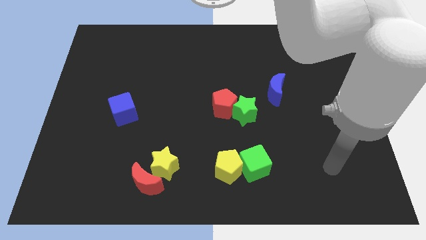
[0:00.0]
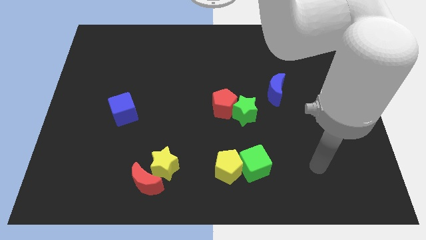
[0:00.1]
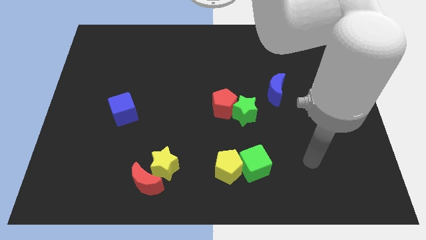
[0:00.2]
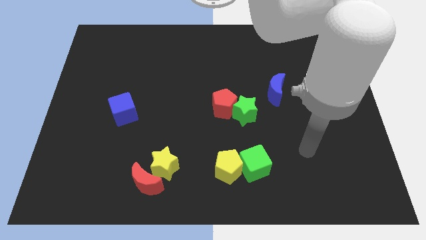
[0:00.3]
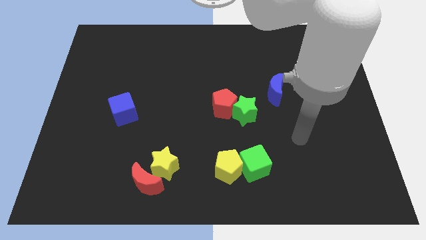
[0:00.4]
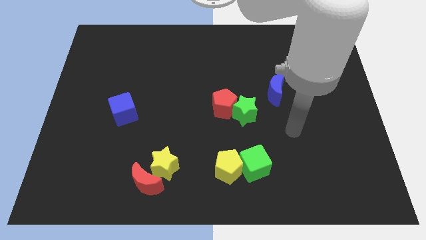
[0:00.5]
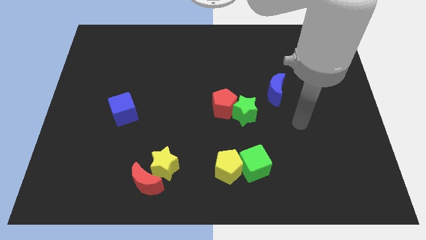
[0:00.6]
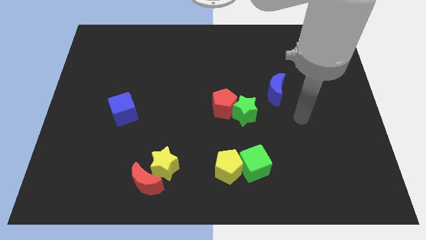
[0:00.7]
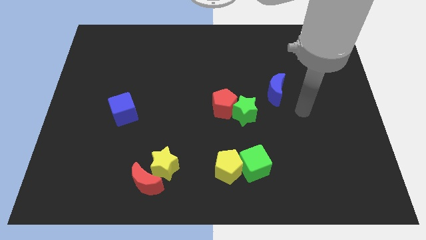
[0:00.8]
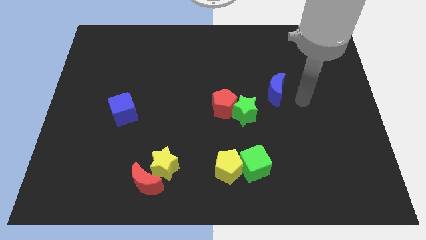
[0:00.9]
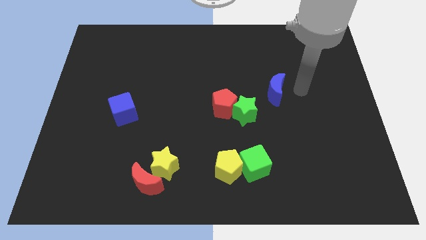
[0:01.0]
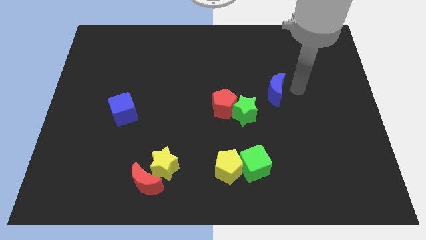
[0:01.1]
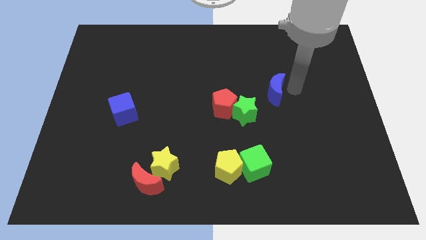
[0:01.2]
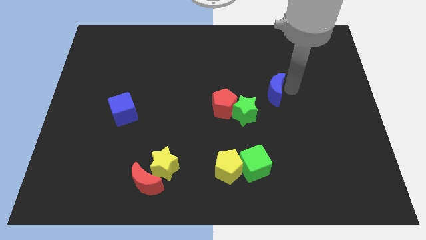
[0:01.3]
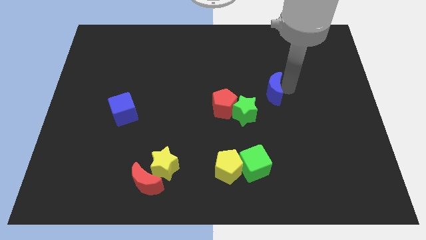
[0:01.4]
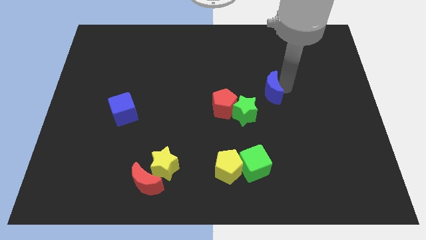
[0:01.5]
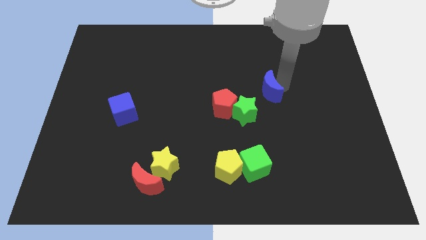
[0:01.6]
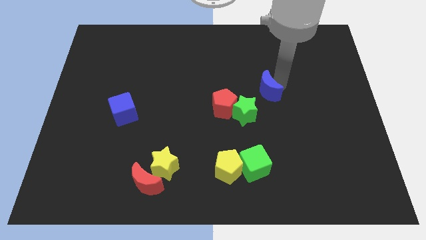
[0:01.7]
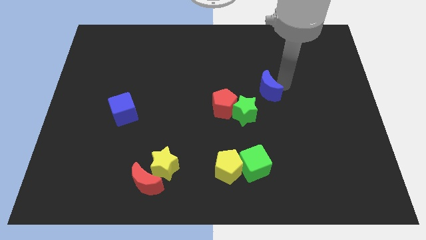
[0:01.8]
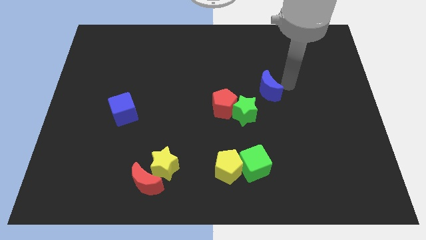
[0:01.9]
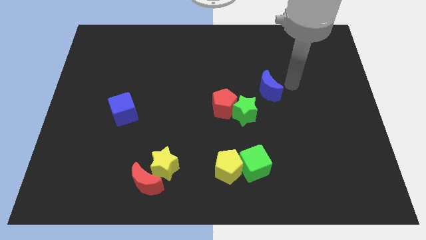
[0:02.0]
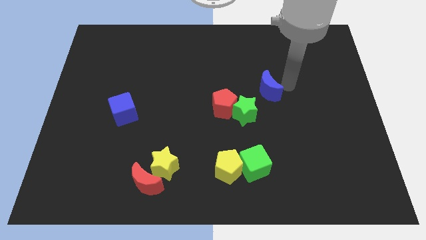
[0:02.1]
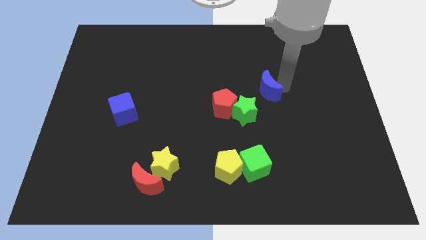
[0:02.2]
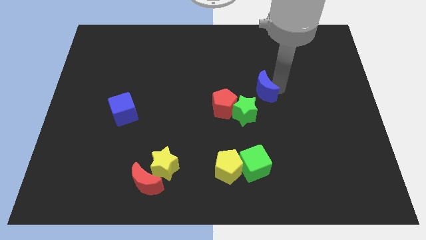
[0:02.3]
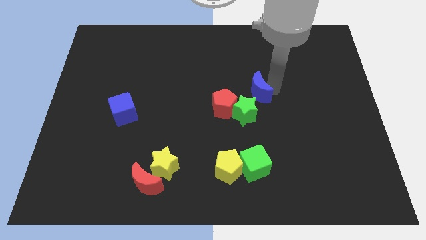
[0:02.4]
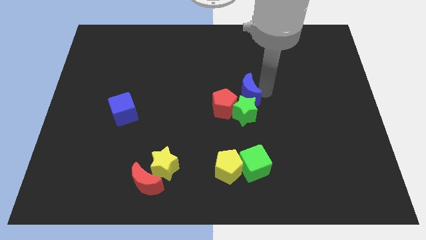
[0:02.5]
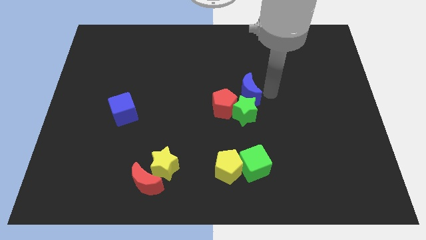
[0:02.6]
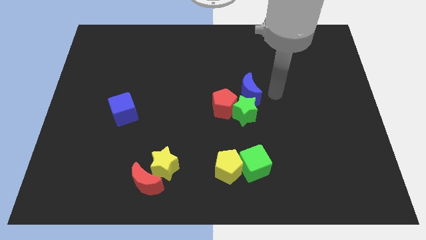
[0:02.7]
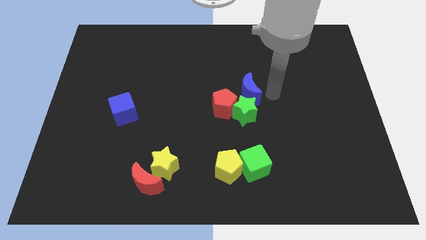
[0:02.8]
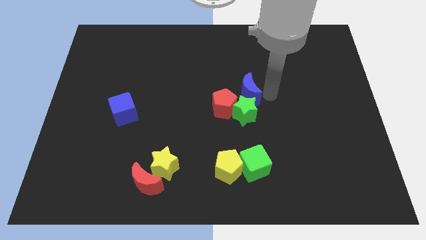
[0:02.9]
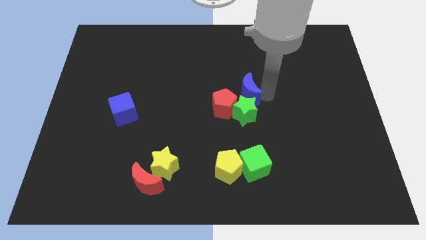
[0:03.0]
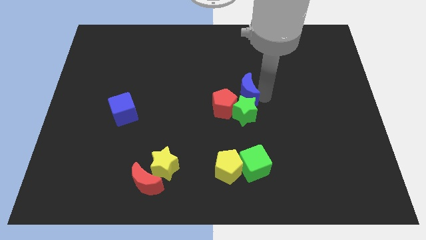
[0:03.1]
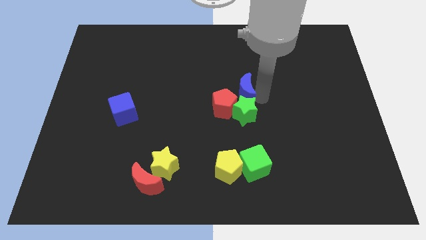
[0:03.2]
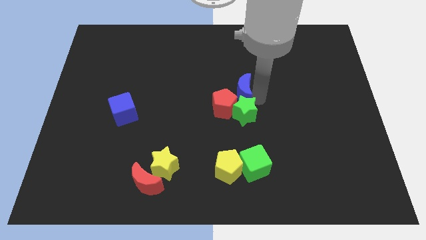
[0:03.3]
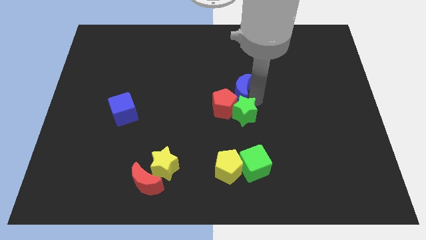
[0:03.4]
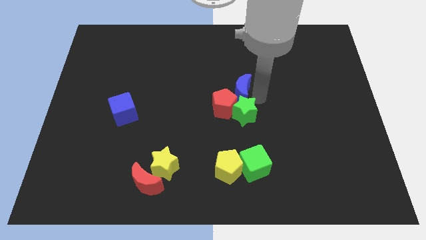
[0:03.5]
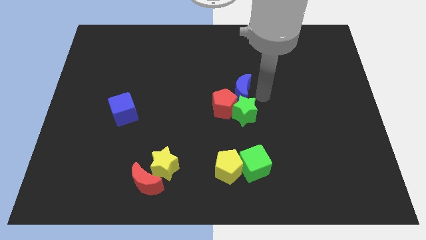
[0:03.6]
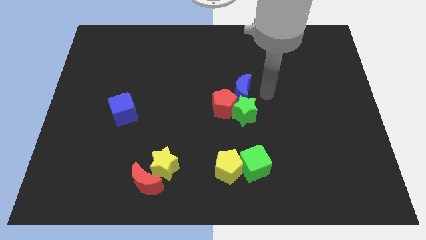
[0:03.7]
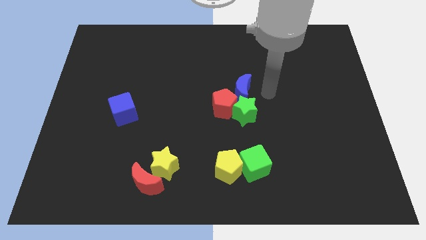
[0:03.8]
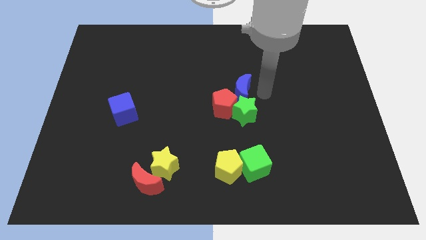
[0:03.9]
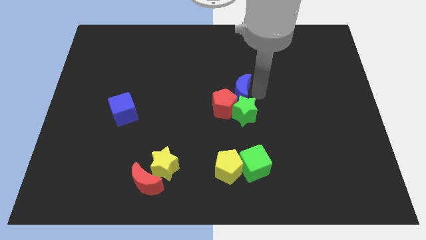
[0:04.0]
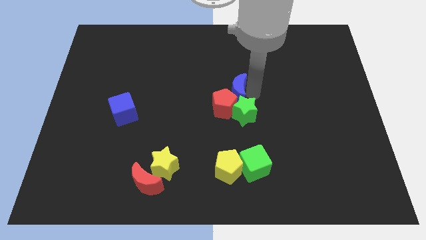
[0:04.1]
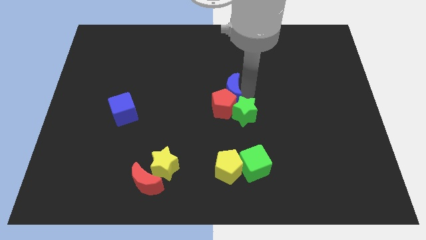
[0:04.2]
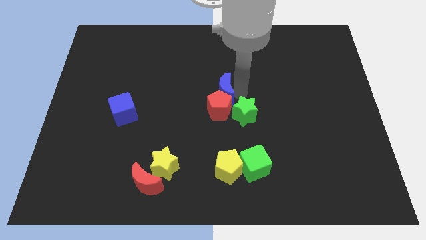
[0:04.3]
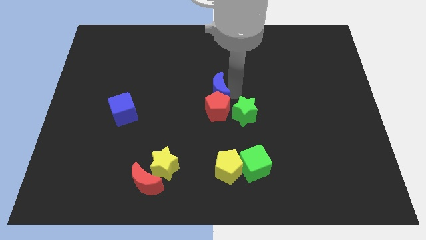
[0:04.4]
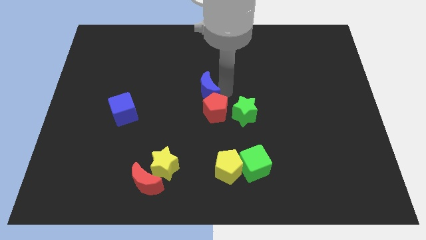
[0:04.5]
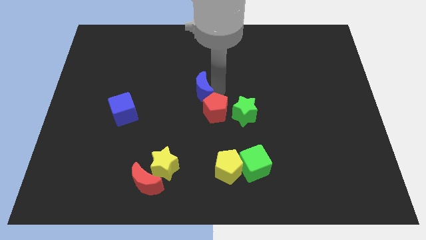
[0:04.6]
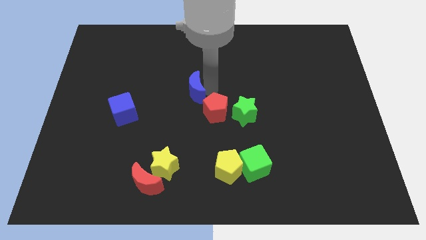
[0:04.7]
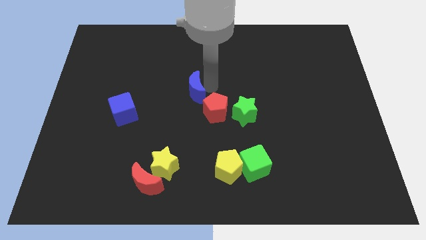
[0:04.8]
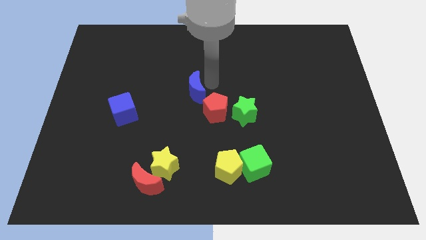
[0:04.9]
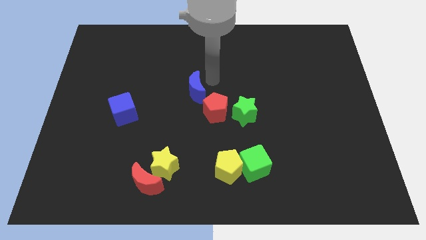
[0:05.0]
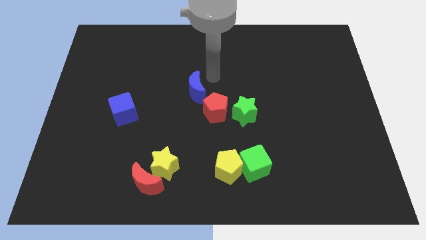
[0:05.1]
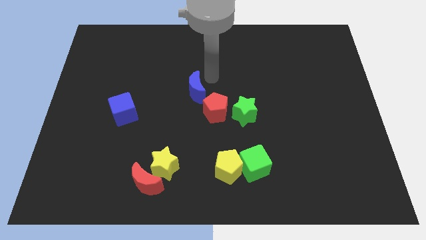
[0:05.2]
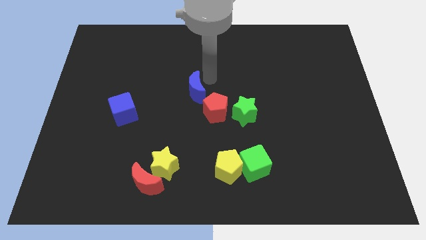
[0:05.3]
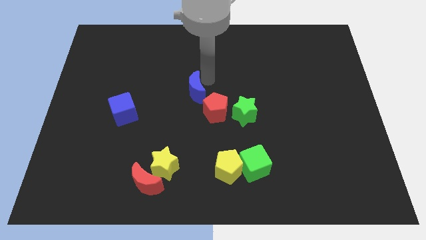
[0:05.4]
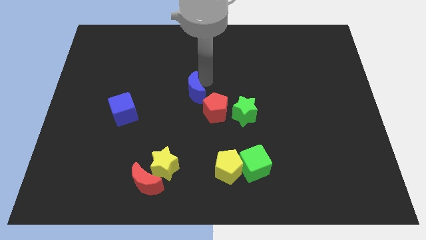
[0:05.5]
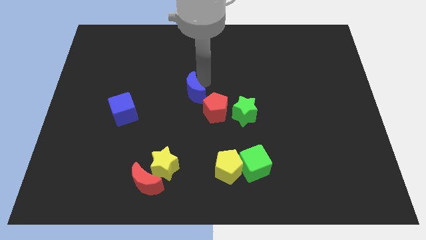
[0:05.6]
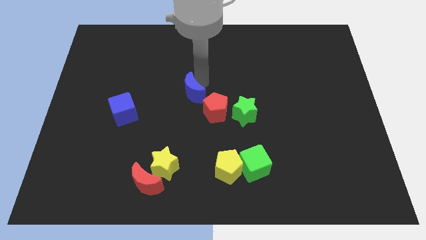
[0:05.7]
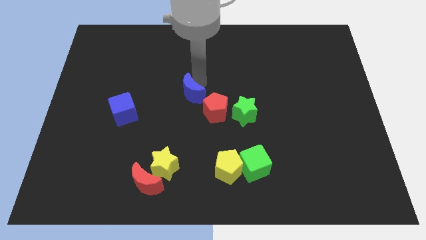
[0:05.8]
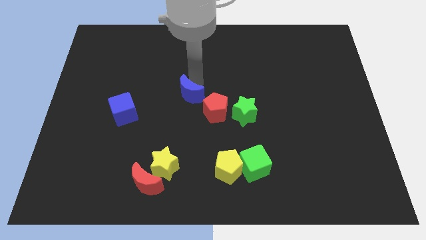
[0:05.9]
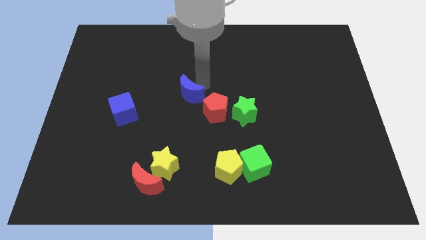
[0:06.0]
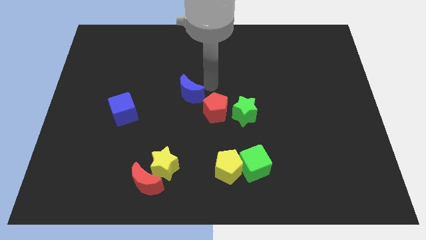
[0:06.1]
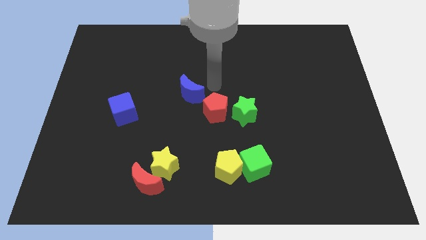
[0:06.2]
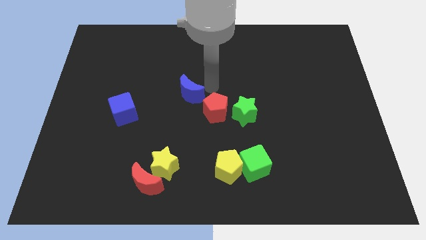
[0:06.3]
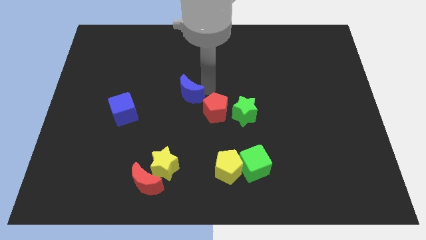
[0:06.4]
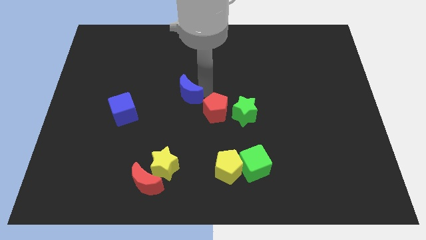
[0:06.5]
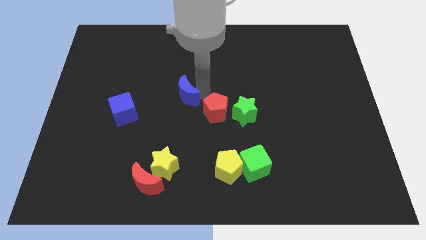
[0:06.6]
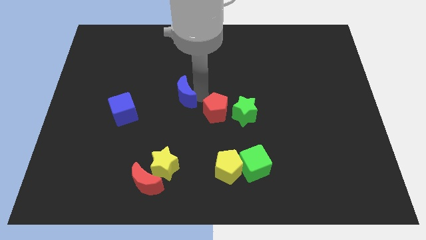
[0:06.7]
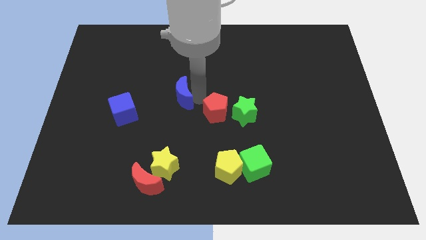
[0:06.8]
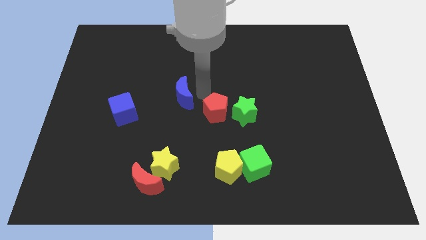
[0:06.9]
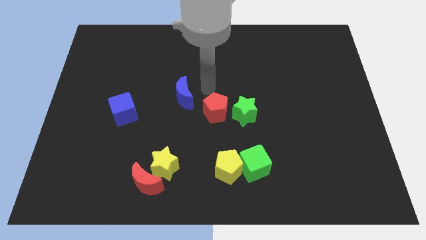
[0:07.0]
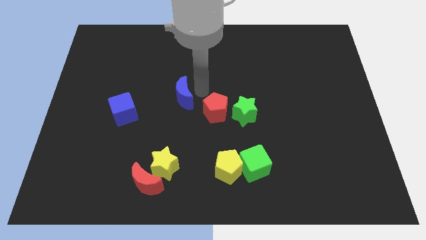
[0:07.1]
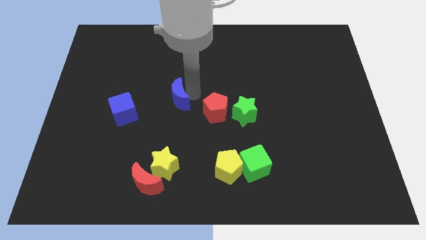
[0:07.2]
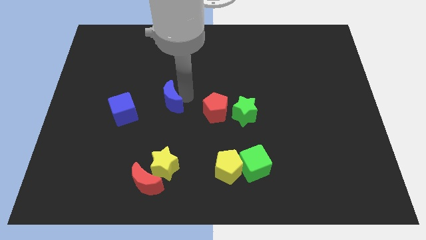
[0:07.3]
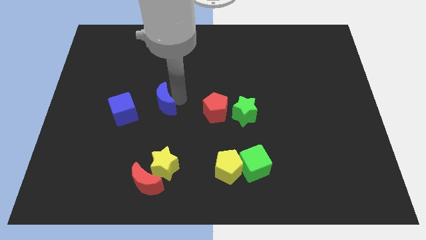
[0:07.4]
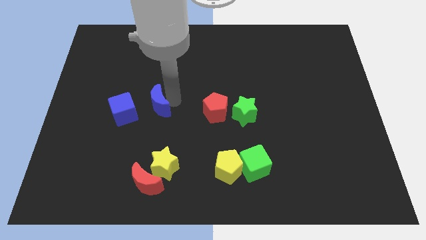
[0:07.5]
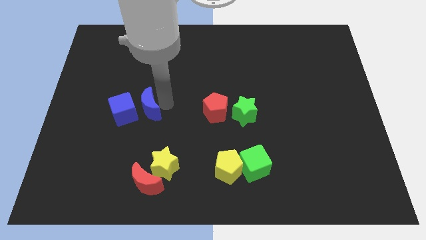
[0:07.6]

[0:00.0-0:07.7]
push the blue moon towards the blue cube
